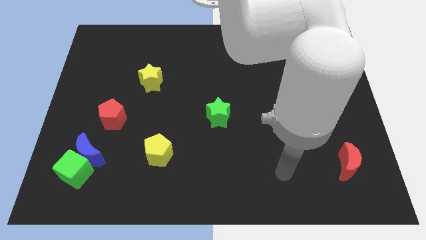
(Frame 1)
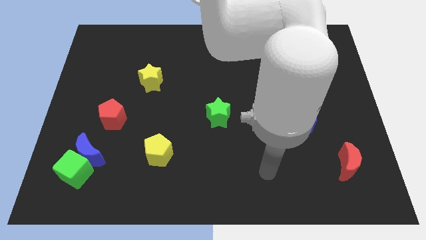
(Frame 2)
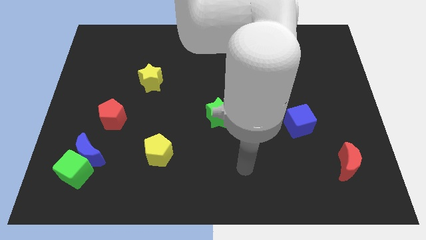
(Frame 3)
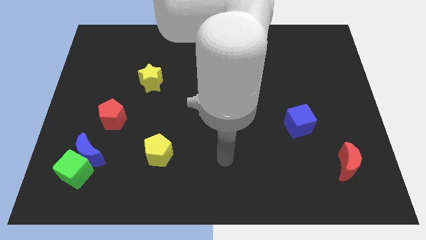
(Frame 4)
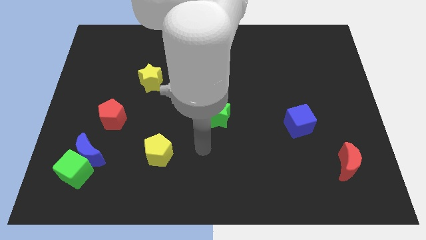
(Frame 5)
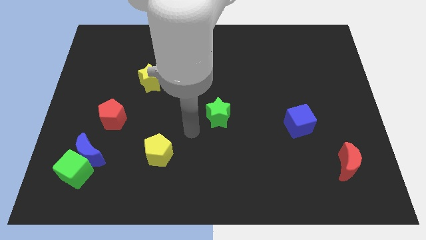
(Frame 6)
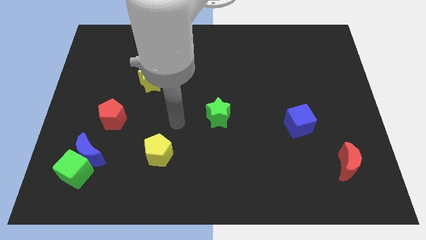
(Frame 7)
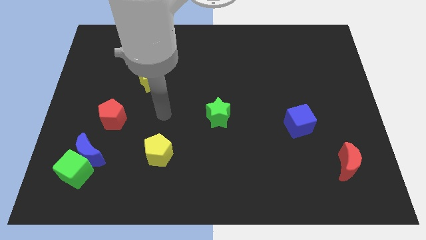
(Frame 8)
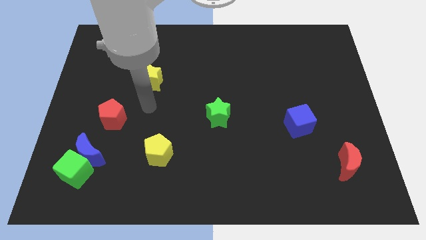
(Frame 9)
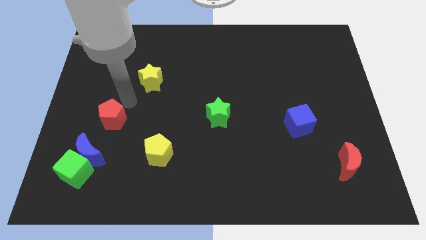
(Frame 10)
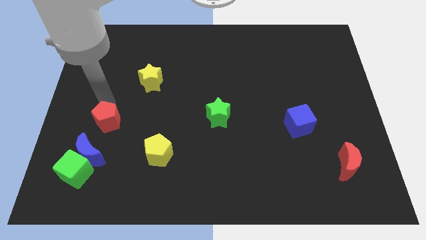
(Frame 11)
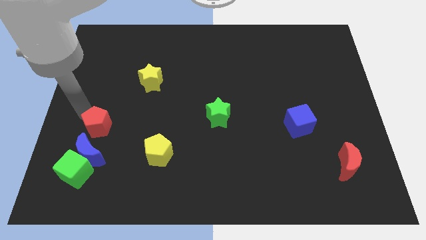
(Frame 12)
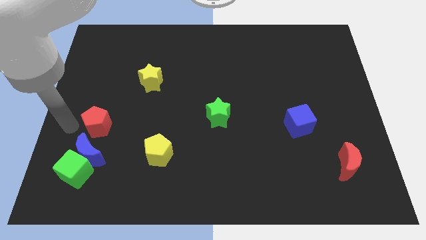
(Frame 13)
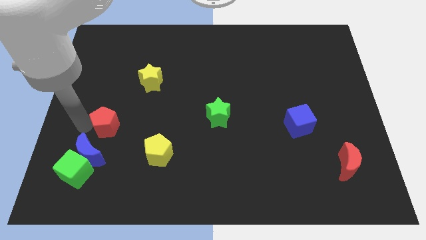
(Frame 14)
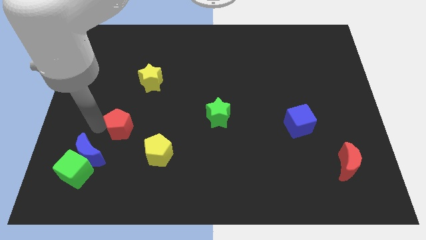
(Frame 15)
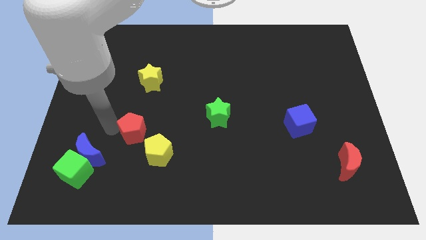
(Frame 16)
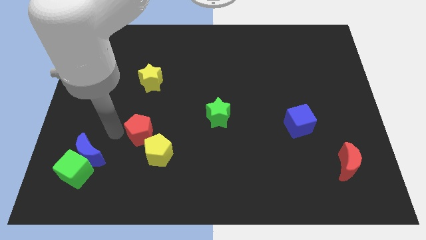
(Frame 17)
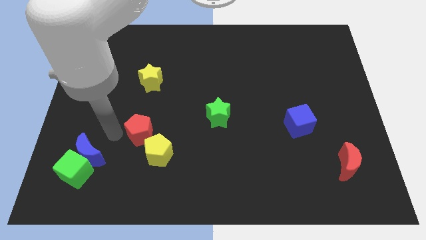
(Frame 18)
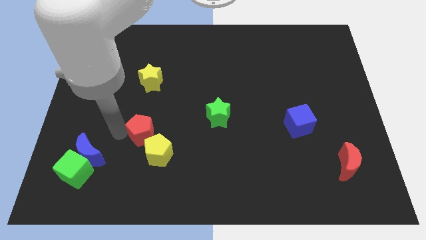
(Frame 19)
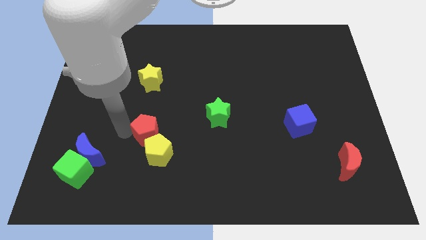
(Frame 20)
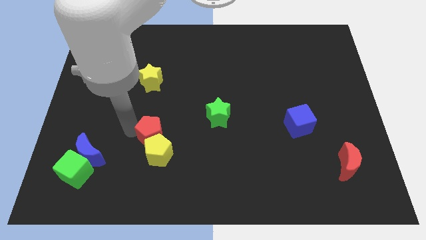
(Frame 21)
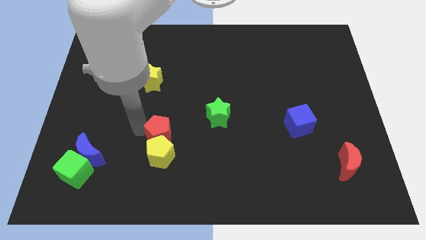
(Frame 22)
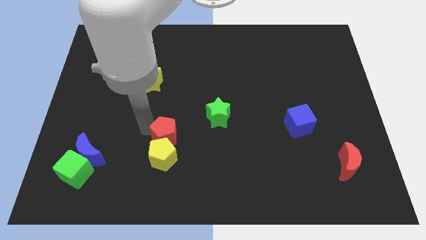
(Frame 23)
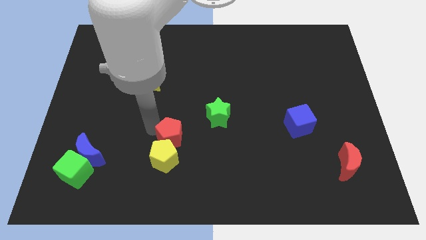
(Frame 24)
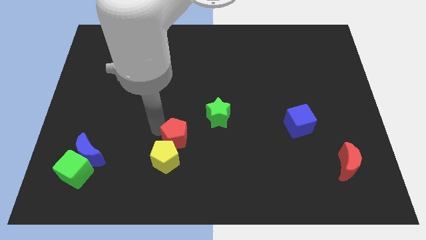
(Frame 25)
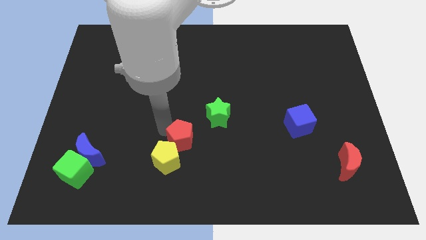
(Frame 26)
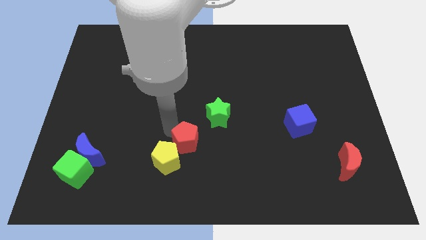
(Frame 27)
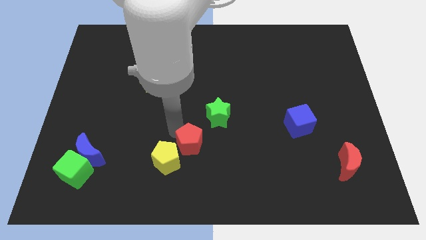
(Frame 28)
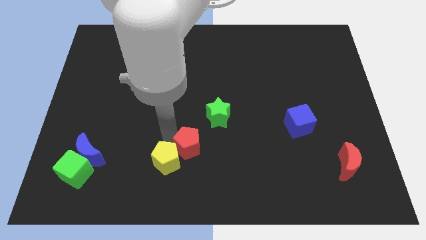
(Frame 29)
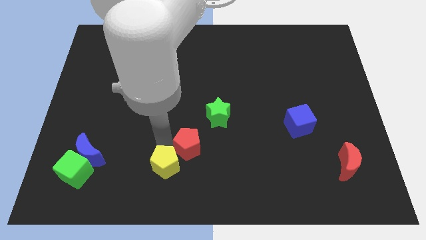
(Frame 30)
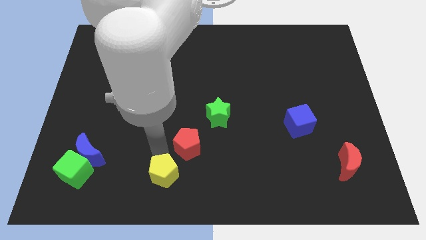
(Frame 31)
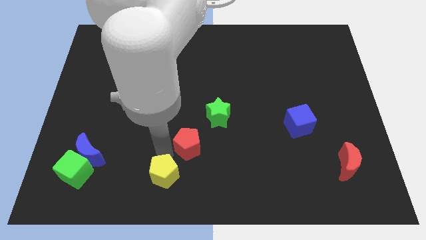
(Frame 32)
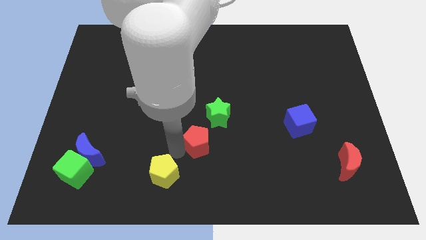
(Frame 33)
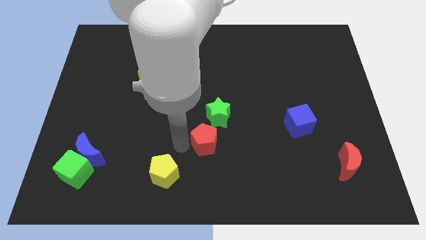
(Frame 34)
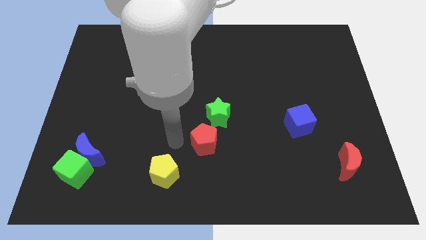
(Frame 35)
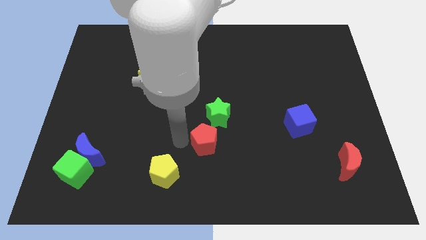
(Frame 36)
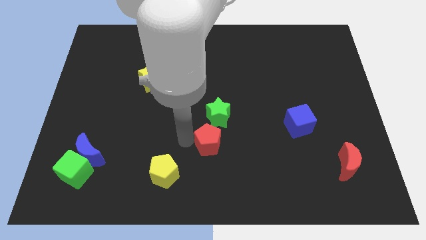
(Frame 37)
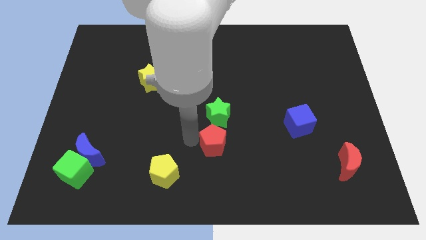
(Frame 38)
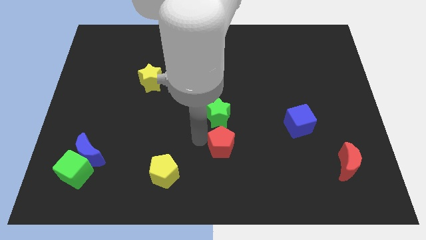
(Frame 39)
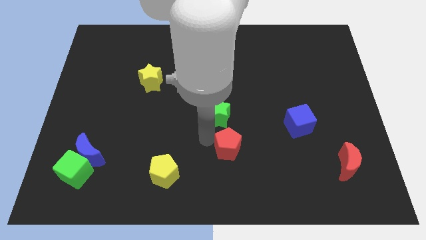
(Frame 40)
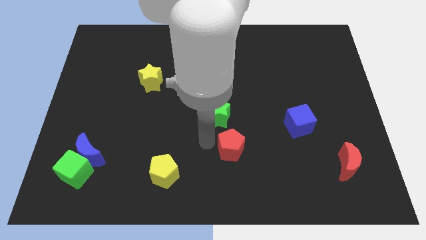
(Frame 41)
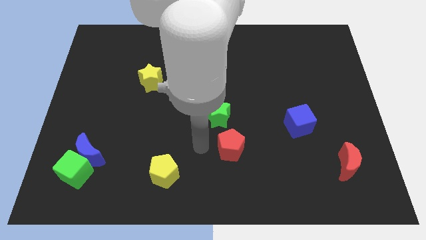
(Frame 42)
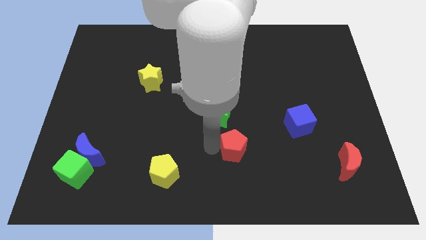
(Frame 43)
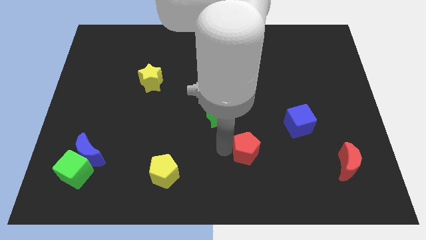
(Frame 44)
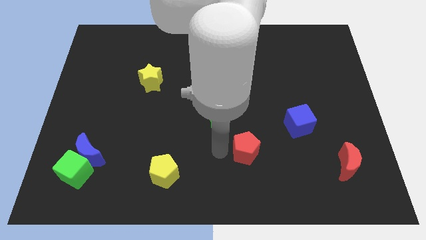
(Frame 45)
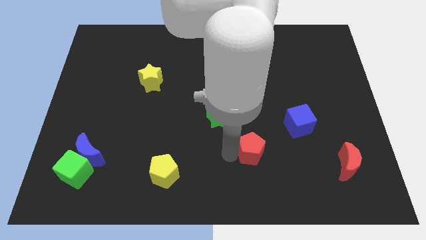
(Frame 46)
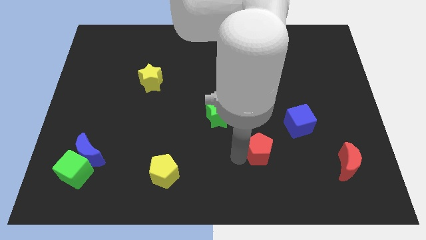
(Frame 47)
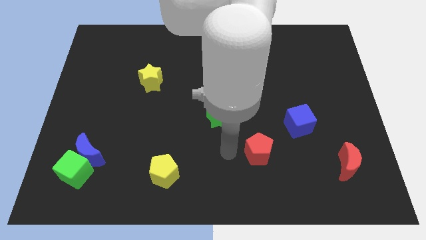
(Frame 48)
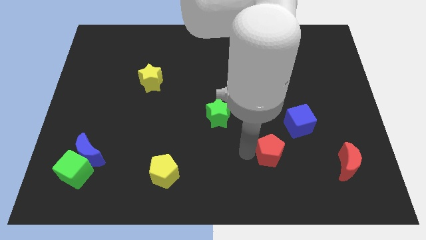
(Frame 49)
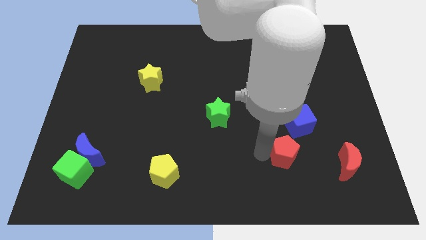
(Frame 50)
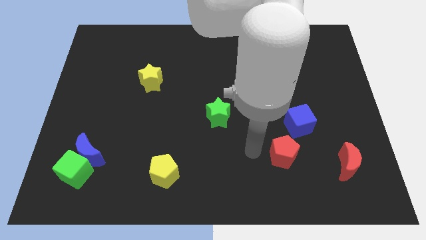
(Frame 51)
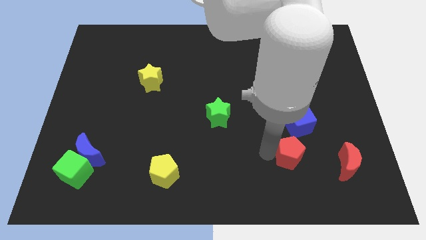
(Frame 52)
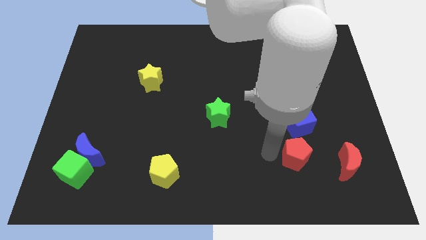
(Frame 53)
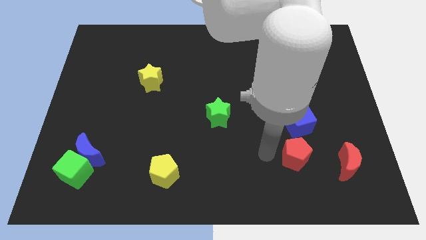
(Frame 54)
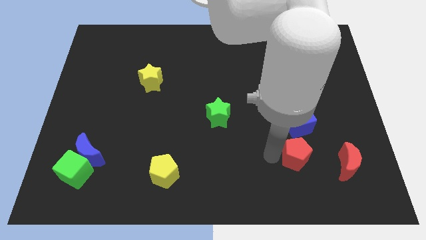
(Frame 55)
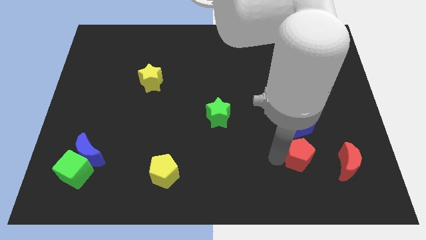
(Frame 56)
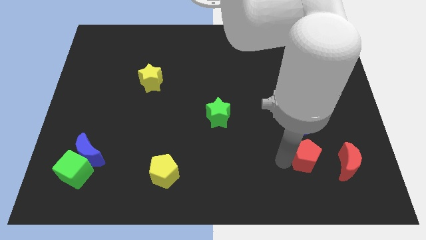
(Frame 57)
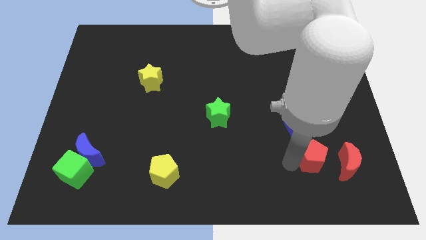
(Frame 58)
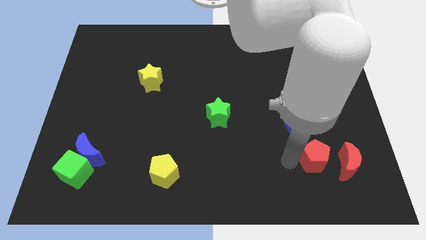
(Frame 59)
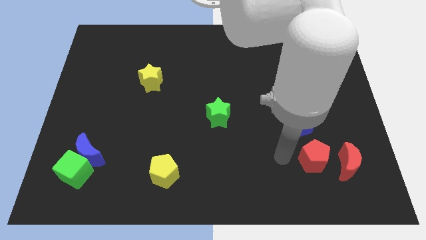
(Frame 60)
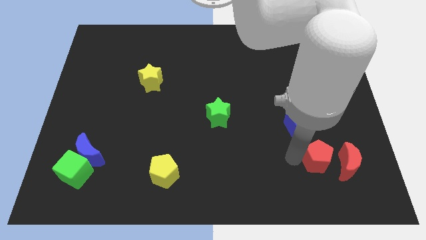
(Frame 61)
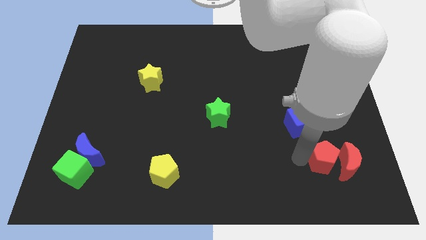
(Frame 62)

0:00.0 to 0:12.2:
move the red pentagon close to the red moon

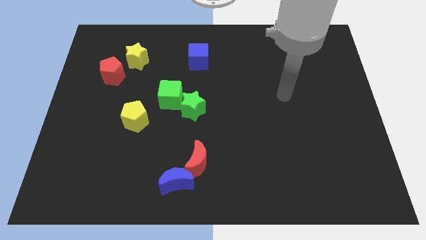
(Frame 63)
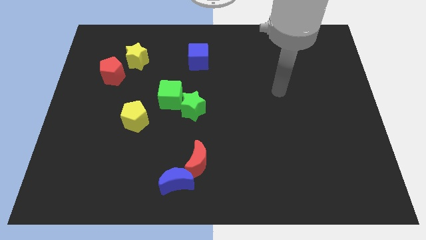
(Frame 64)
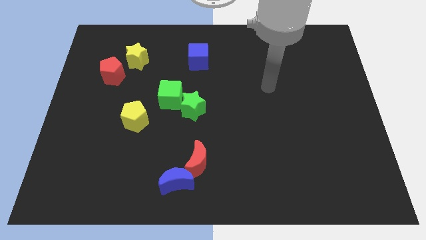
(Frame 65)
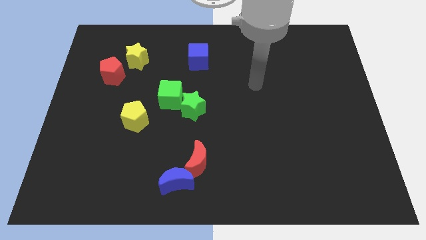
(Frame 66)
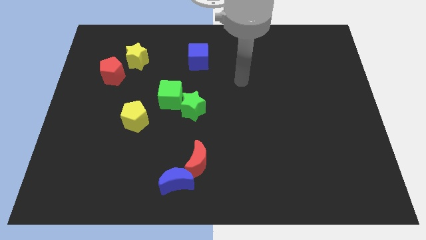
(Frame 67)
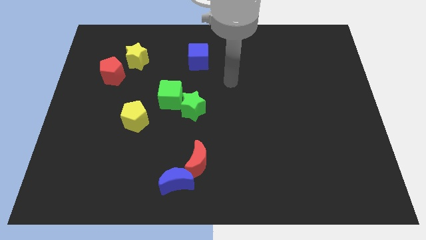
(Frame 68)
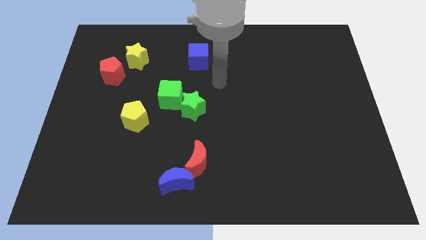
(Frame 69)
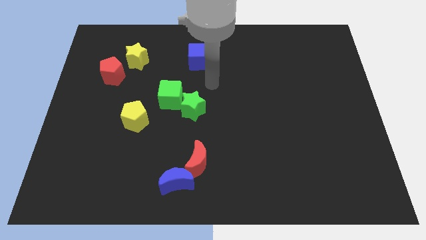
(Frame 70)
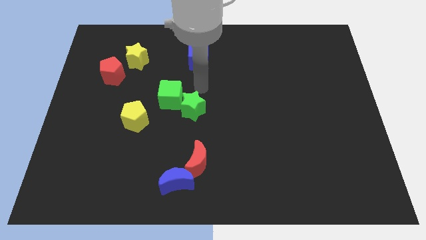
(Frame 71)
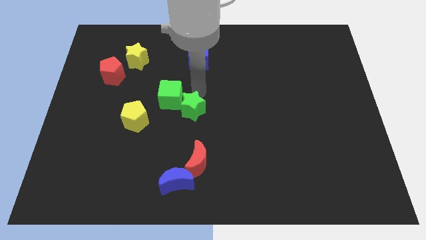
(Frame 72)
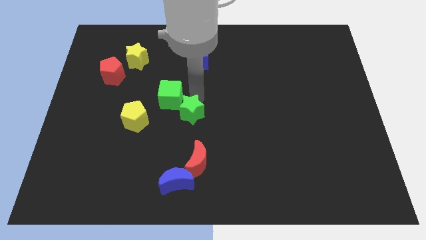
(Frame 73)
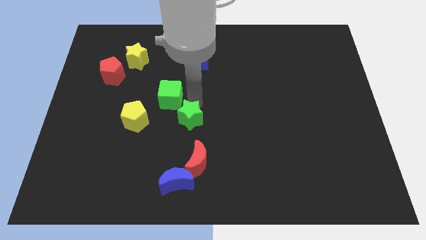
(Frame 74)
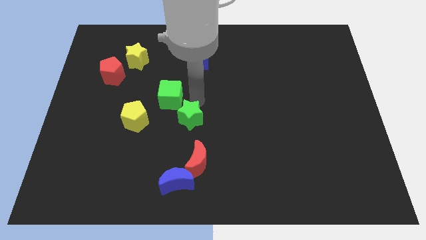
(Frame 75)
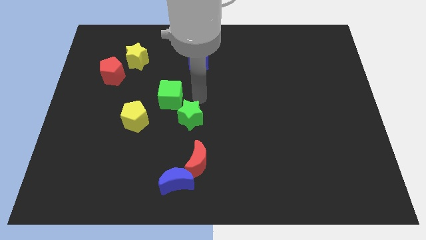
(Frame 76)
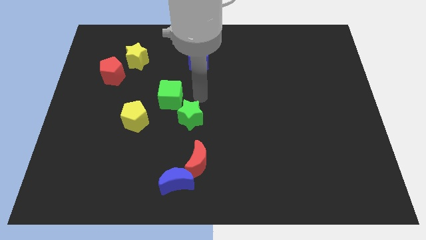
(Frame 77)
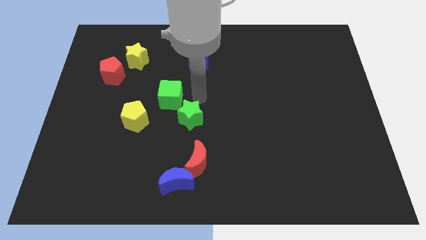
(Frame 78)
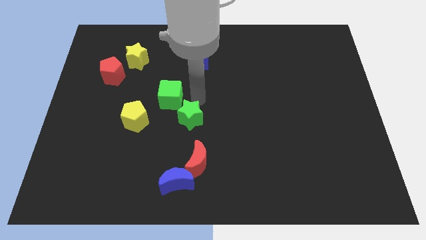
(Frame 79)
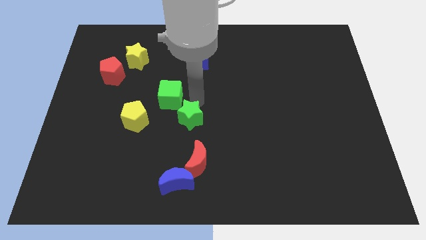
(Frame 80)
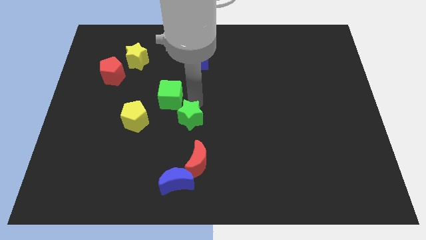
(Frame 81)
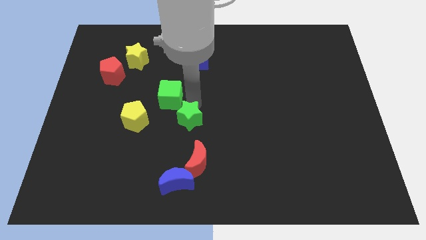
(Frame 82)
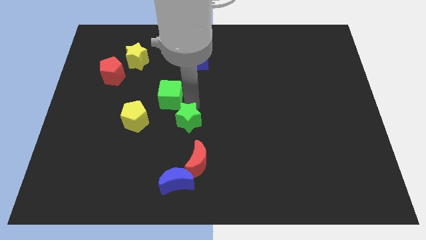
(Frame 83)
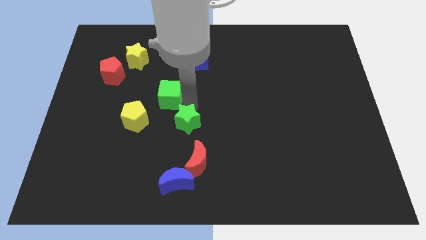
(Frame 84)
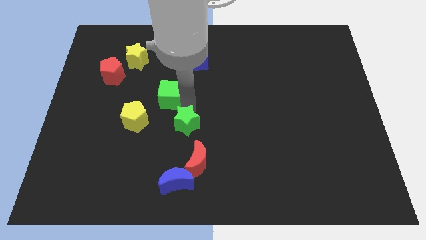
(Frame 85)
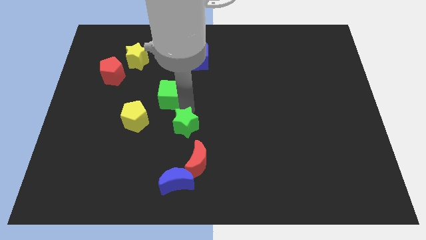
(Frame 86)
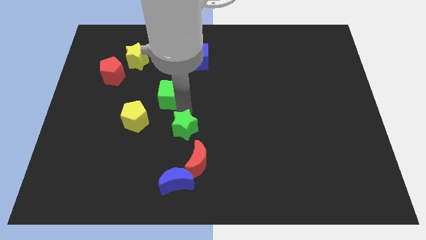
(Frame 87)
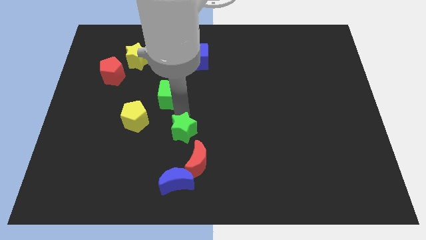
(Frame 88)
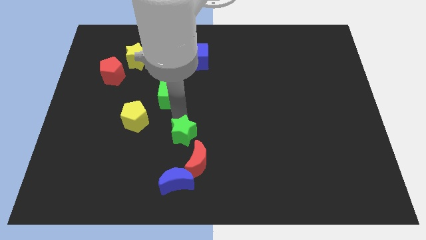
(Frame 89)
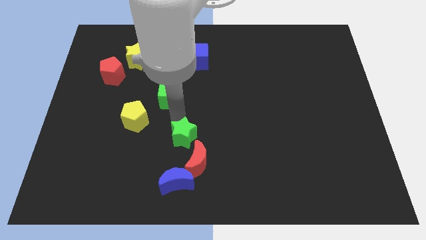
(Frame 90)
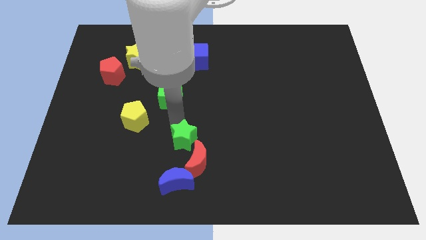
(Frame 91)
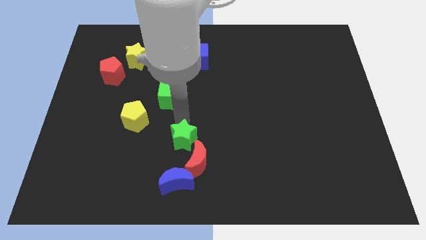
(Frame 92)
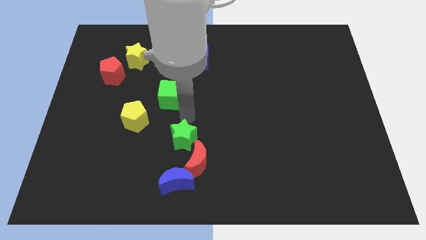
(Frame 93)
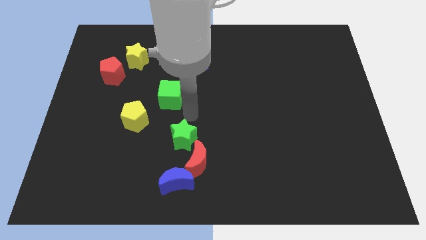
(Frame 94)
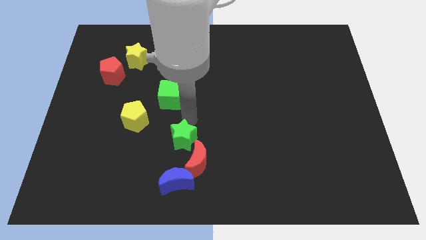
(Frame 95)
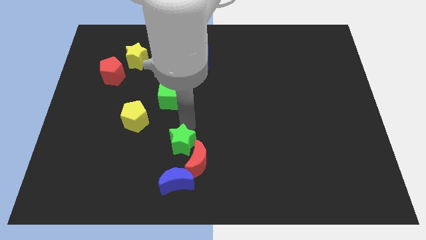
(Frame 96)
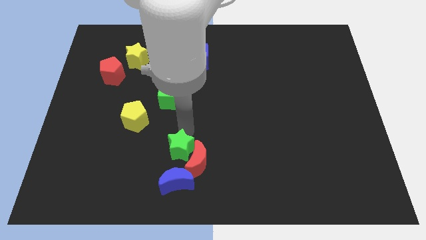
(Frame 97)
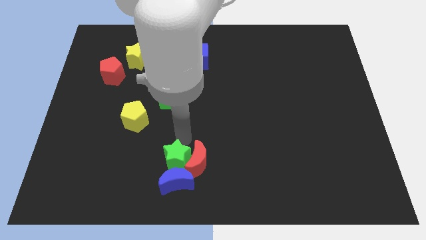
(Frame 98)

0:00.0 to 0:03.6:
move the green star to the blue moon
